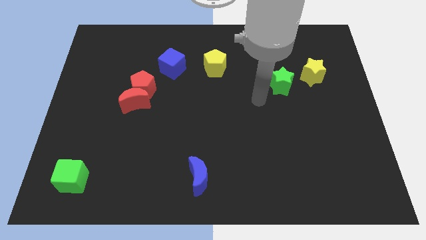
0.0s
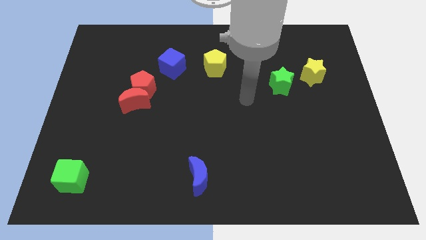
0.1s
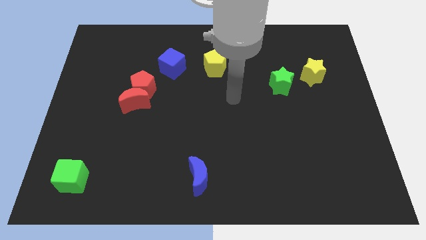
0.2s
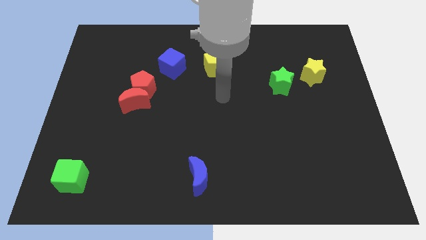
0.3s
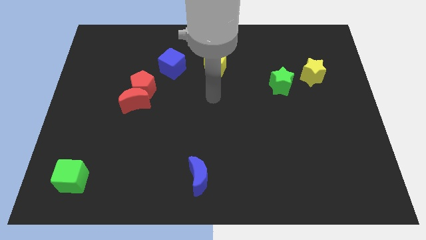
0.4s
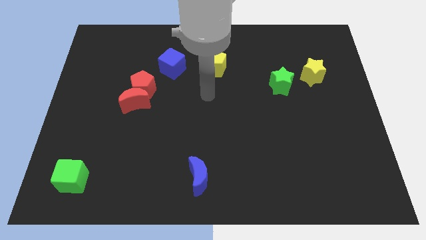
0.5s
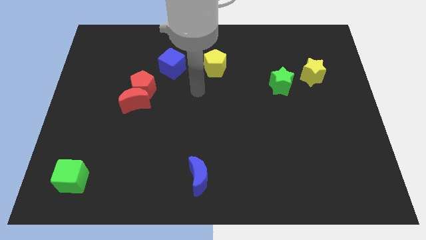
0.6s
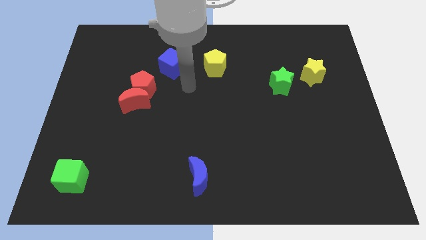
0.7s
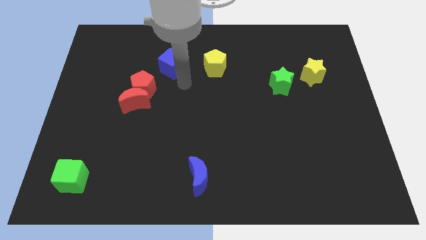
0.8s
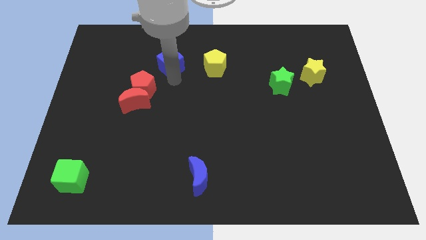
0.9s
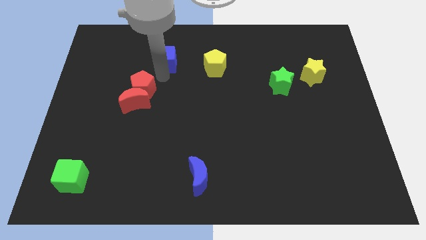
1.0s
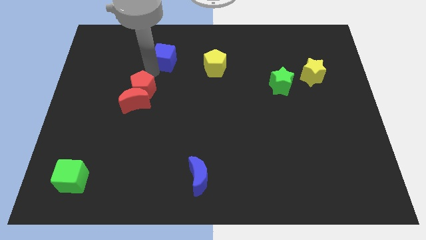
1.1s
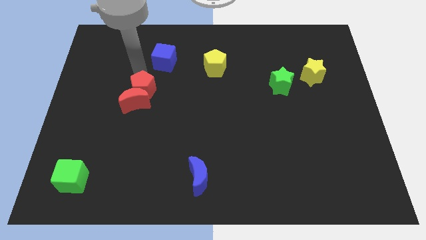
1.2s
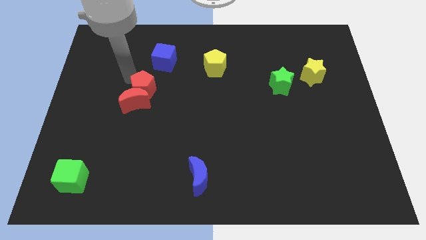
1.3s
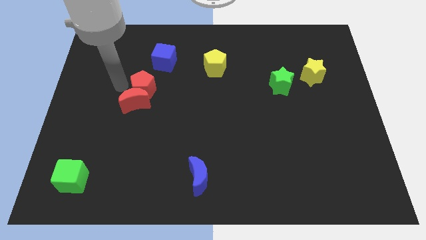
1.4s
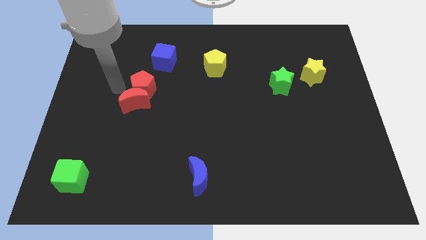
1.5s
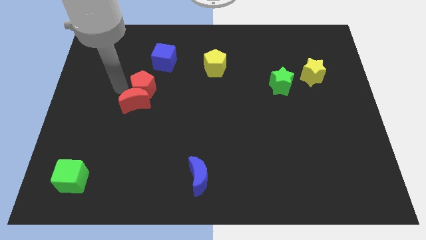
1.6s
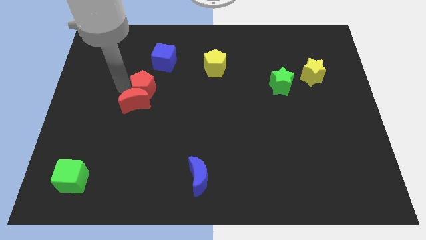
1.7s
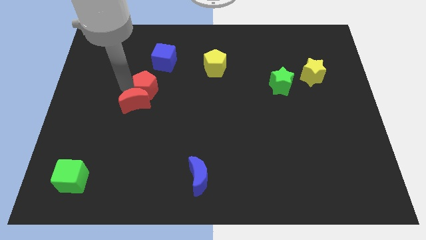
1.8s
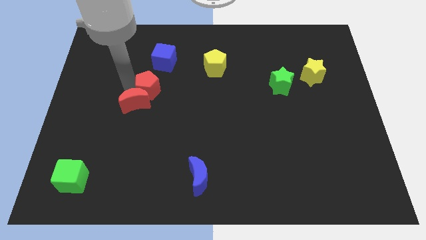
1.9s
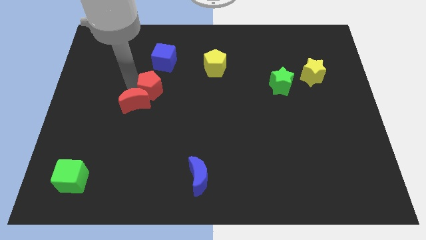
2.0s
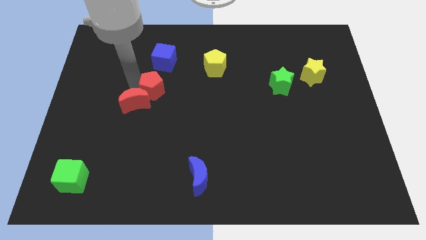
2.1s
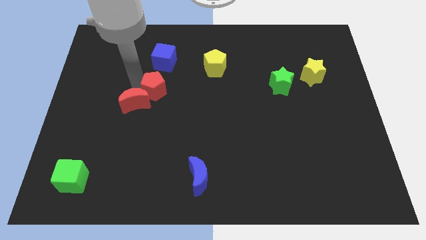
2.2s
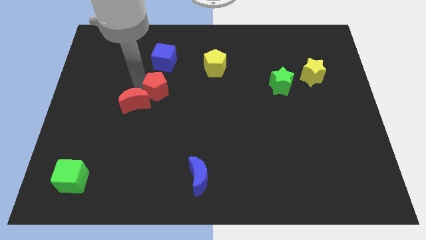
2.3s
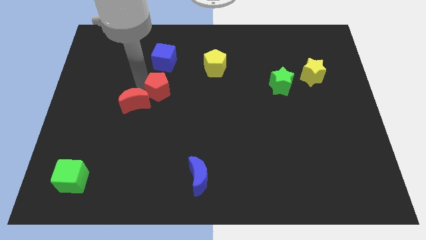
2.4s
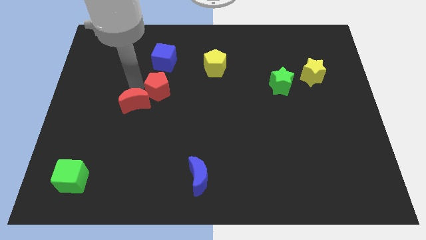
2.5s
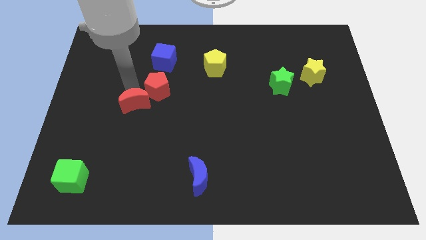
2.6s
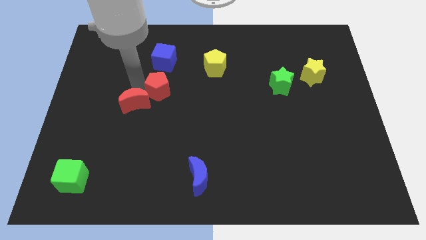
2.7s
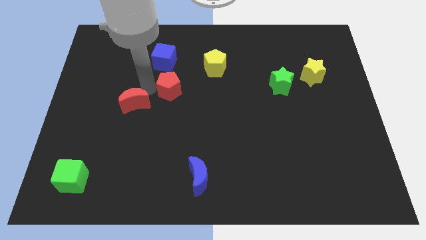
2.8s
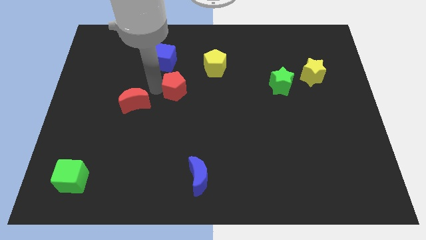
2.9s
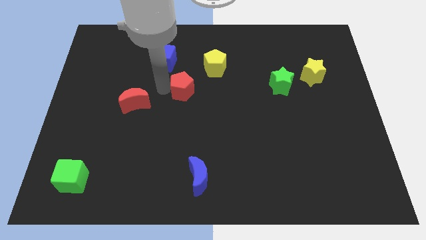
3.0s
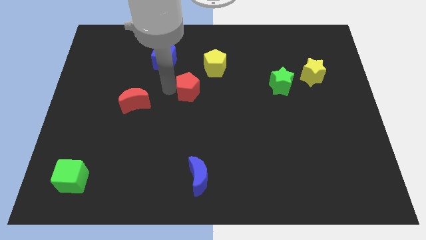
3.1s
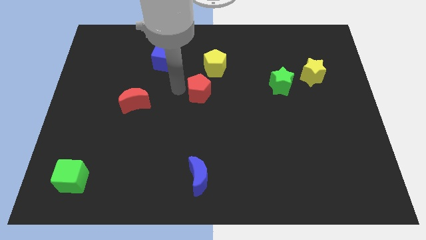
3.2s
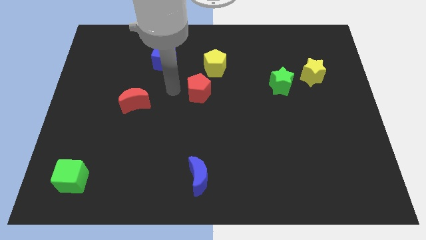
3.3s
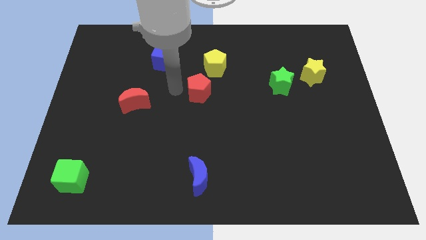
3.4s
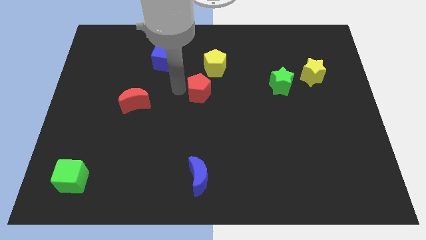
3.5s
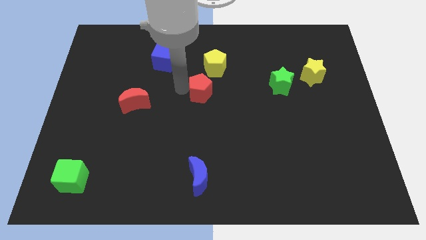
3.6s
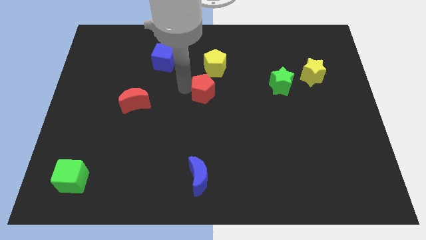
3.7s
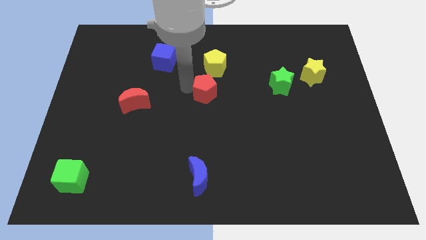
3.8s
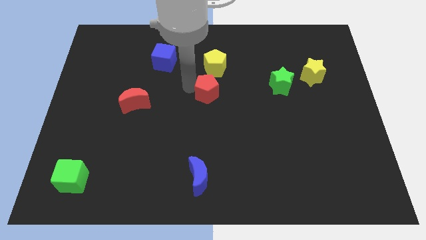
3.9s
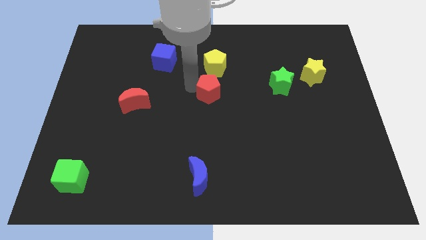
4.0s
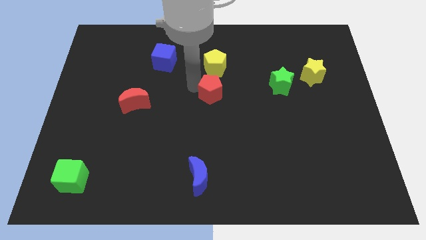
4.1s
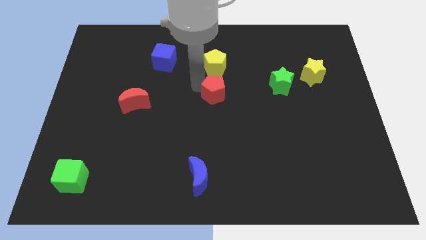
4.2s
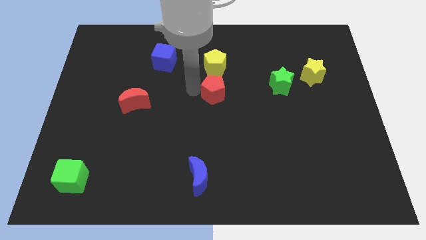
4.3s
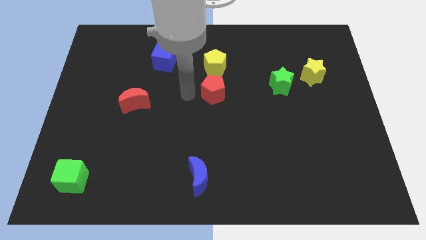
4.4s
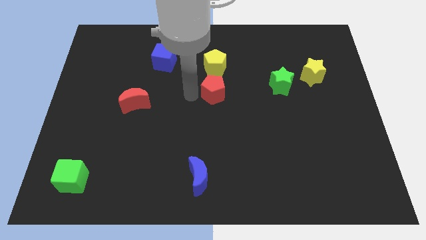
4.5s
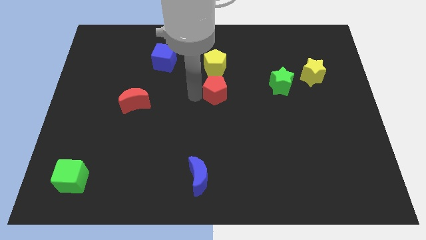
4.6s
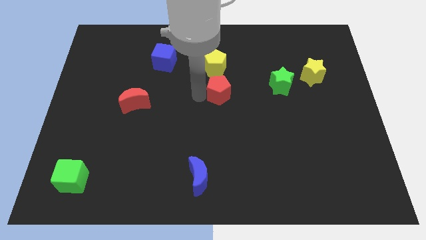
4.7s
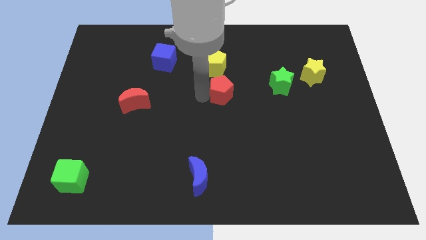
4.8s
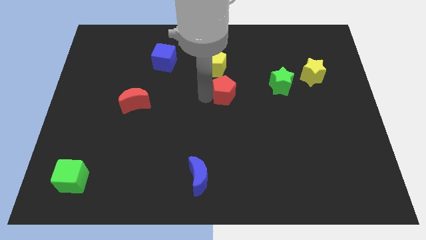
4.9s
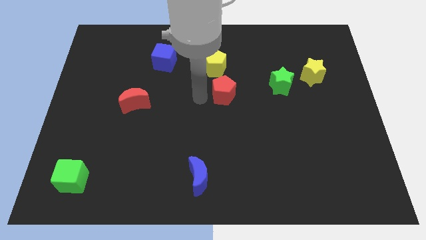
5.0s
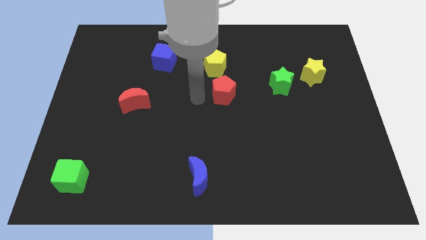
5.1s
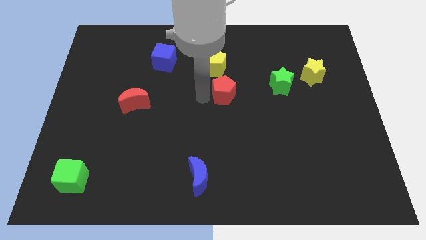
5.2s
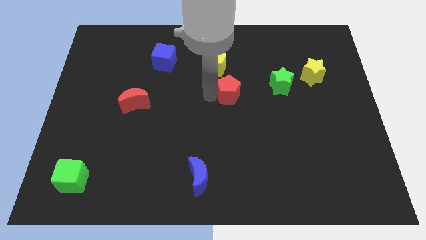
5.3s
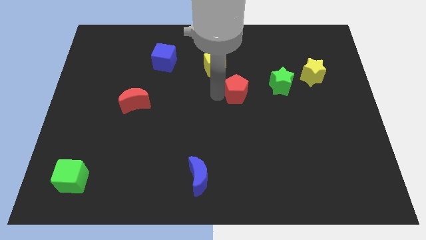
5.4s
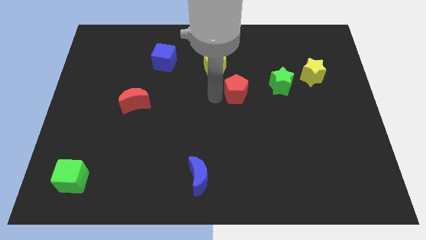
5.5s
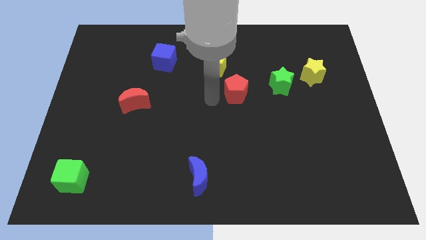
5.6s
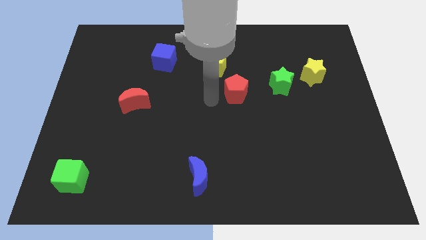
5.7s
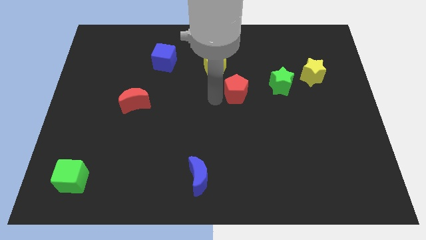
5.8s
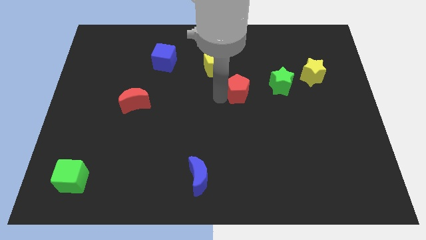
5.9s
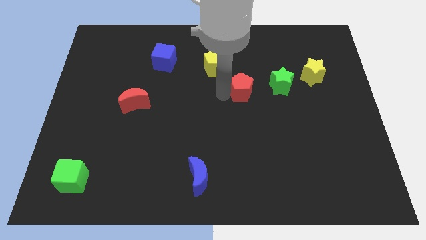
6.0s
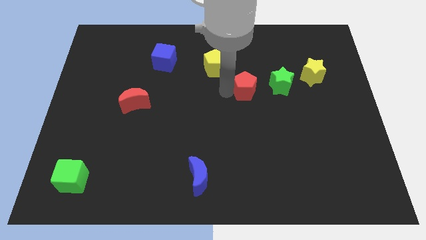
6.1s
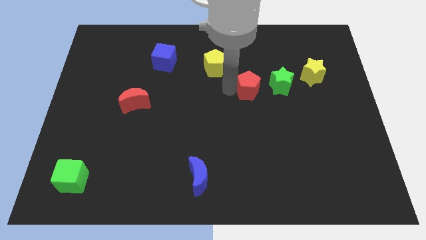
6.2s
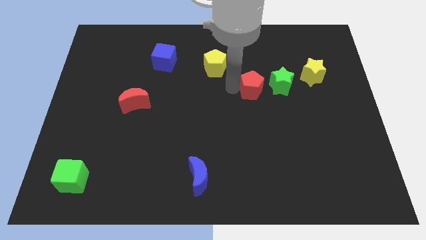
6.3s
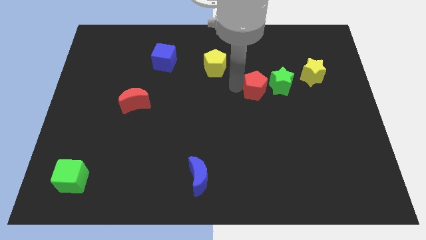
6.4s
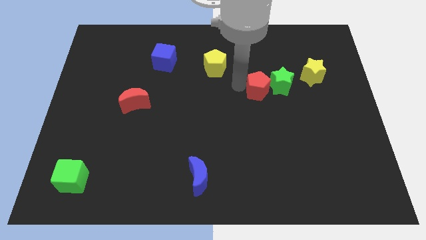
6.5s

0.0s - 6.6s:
slide the red pentagon close to the green star
